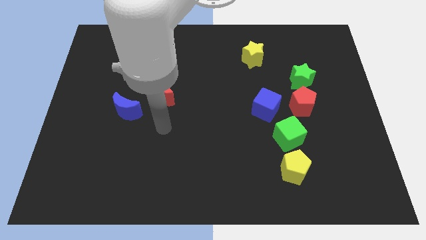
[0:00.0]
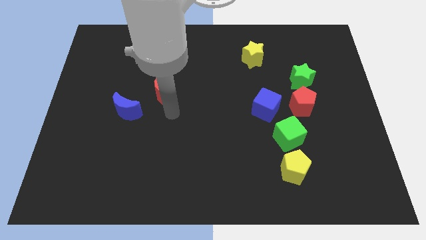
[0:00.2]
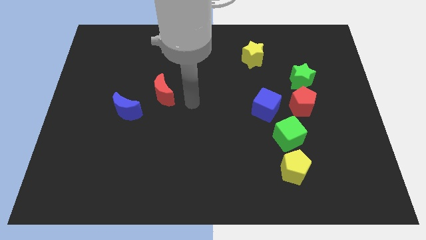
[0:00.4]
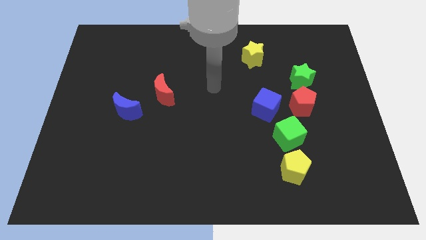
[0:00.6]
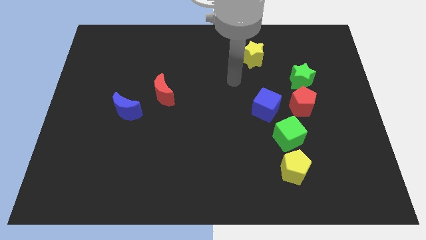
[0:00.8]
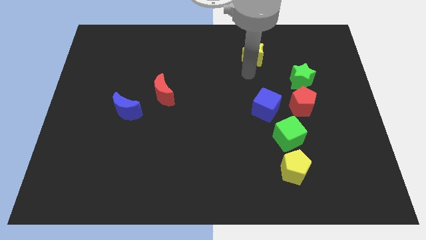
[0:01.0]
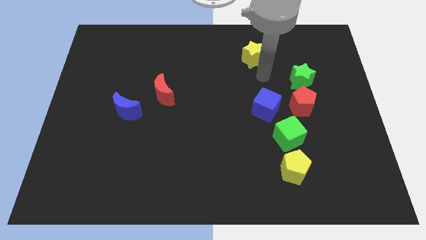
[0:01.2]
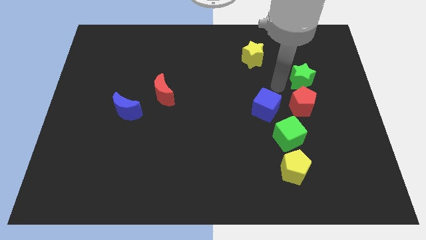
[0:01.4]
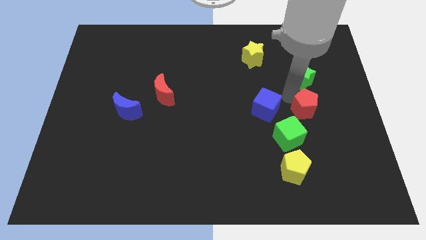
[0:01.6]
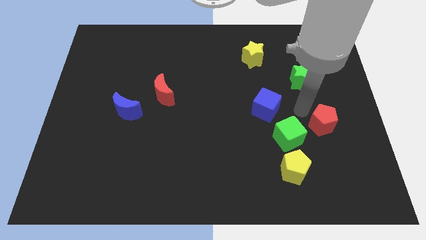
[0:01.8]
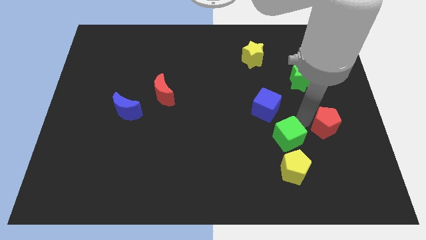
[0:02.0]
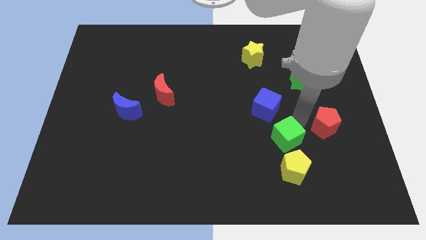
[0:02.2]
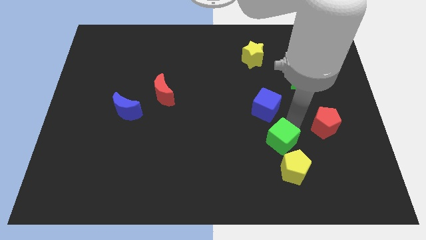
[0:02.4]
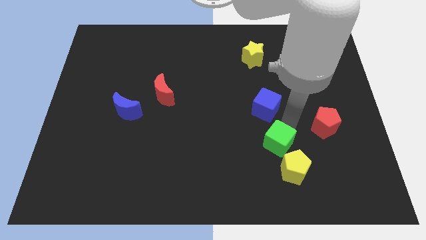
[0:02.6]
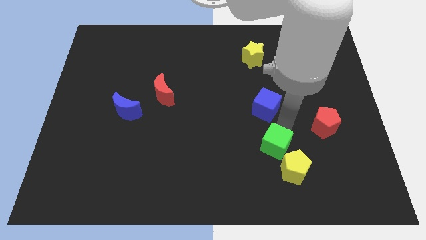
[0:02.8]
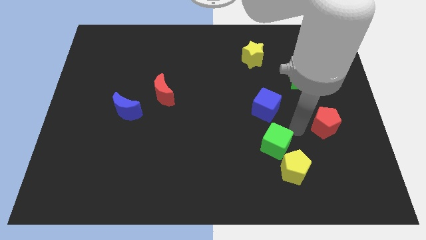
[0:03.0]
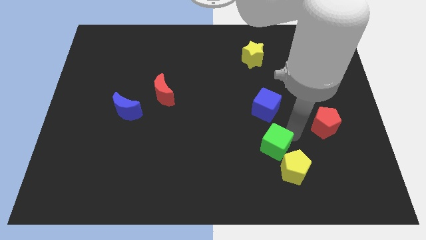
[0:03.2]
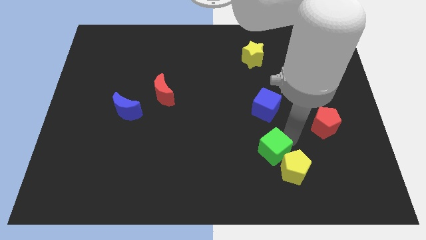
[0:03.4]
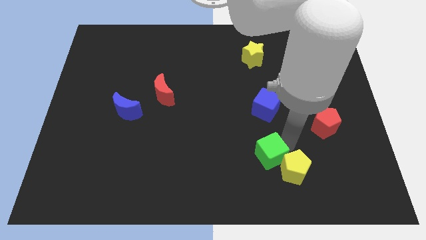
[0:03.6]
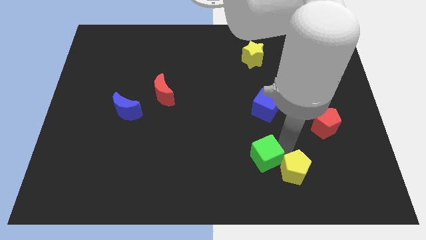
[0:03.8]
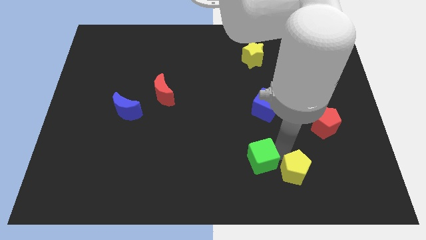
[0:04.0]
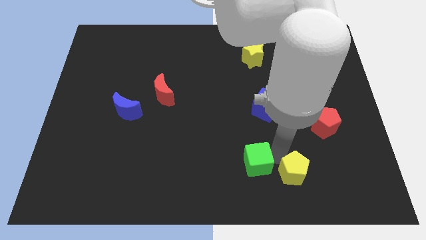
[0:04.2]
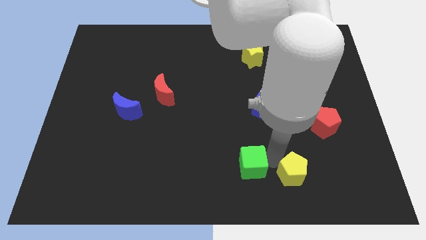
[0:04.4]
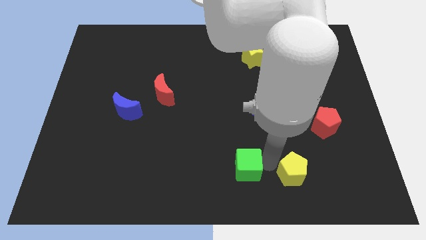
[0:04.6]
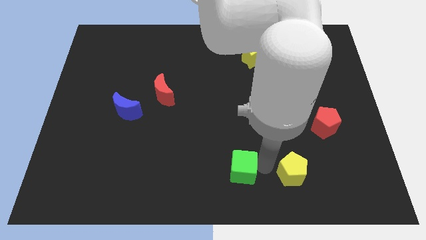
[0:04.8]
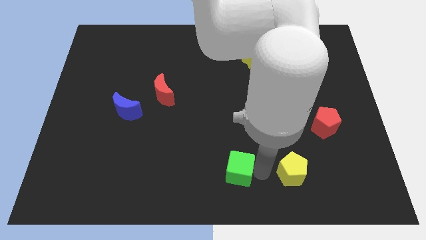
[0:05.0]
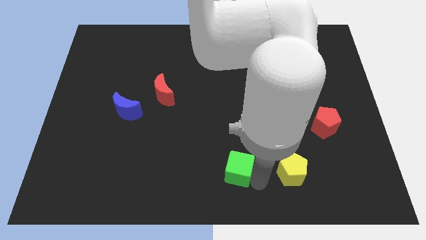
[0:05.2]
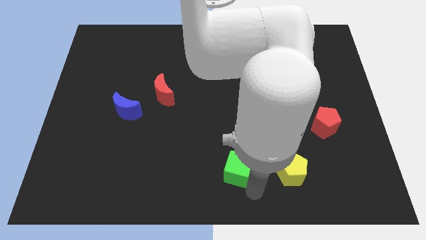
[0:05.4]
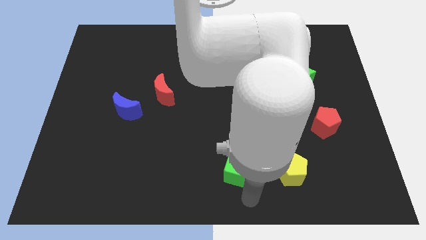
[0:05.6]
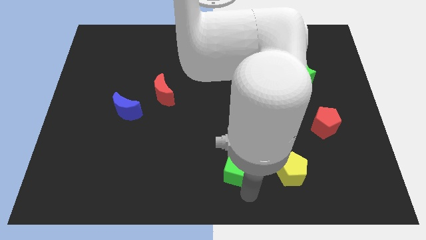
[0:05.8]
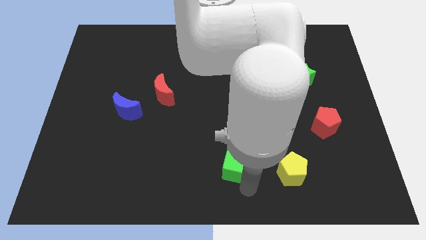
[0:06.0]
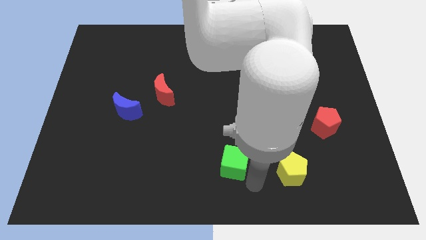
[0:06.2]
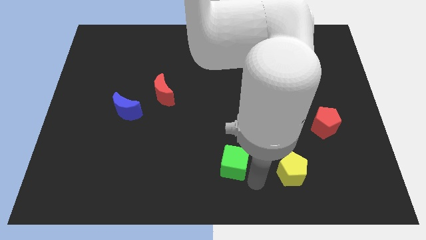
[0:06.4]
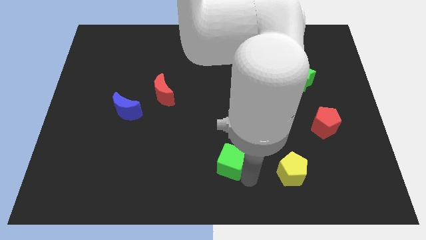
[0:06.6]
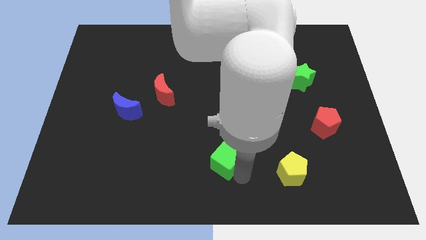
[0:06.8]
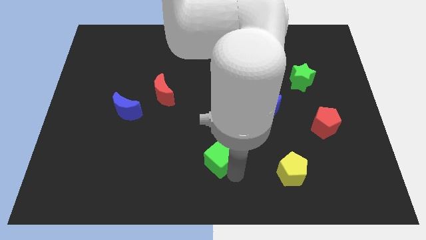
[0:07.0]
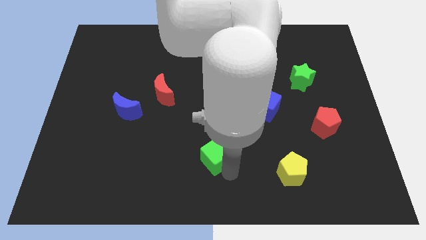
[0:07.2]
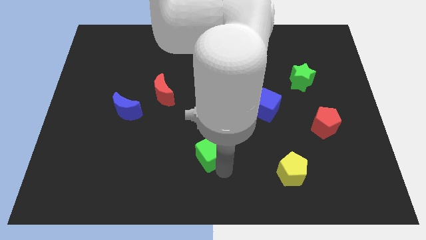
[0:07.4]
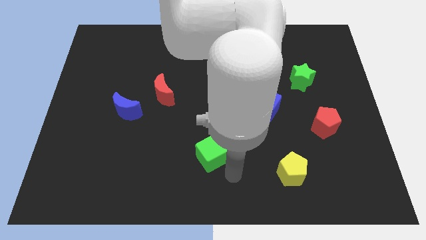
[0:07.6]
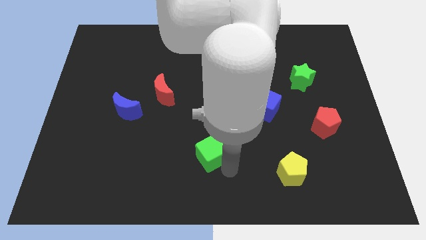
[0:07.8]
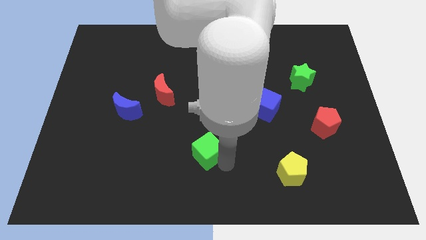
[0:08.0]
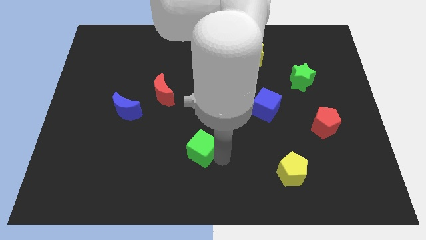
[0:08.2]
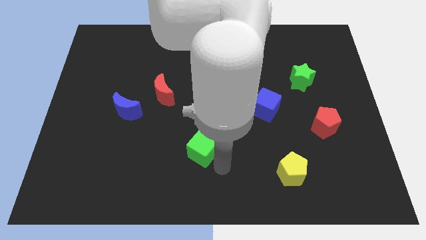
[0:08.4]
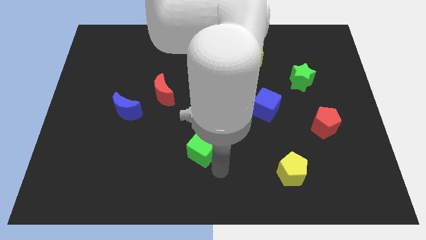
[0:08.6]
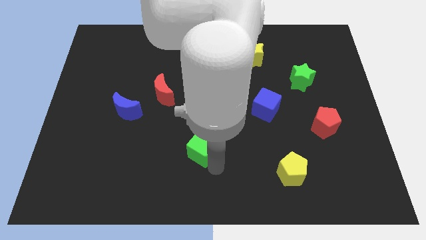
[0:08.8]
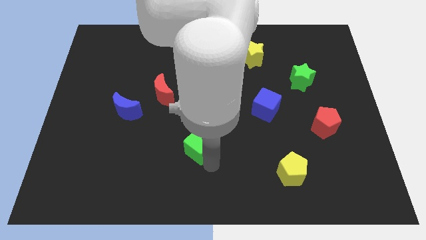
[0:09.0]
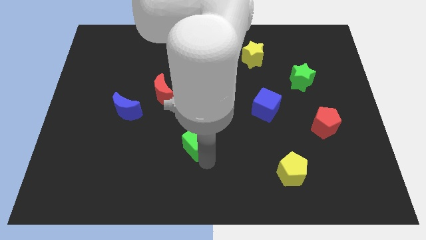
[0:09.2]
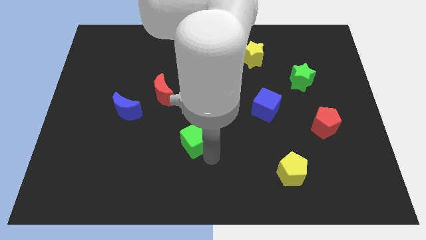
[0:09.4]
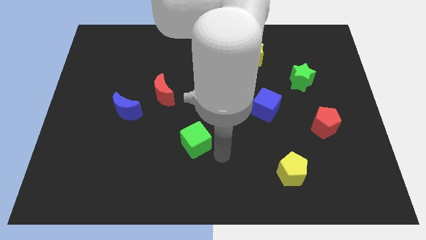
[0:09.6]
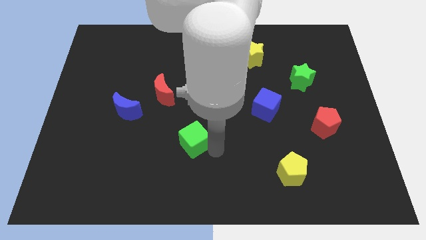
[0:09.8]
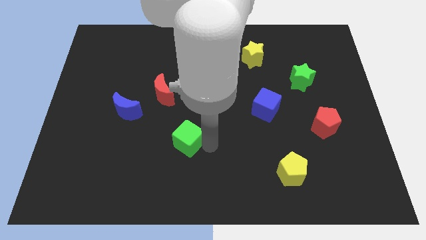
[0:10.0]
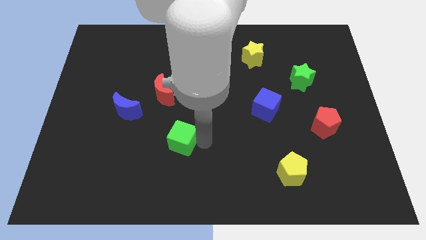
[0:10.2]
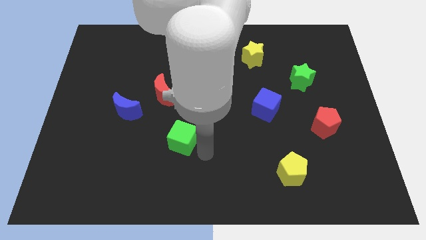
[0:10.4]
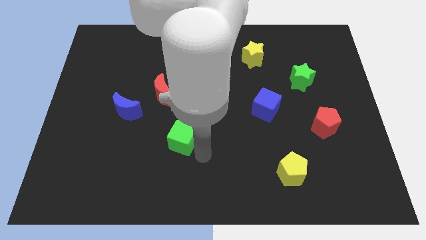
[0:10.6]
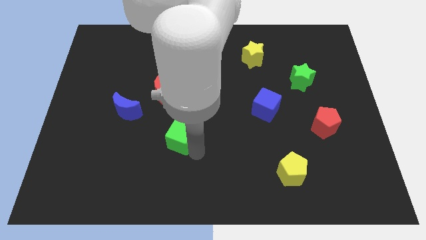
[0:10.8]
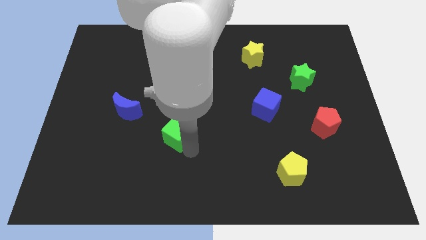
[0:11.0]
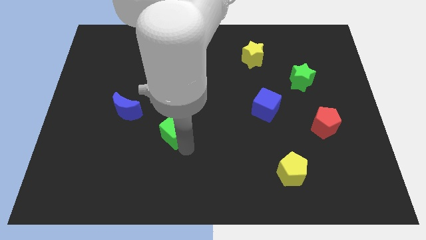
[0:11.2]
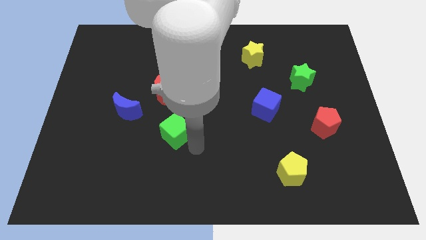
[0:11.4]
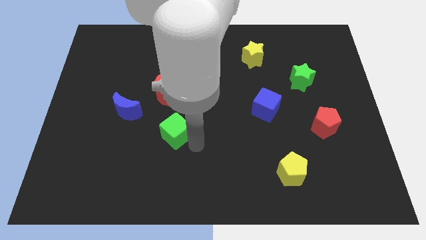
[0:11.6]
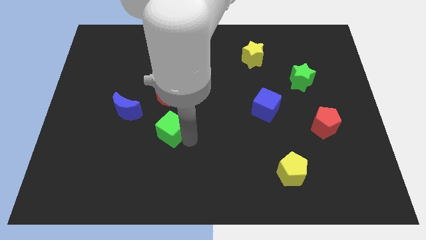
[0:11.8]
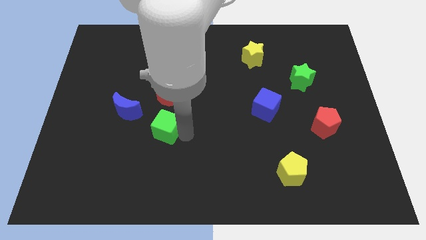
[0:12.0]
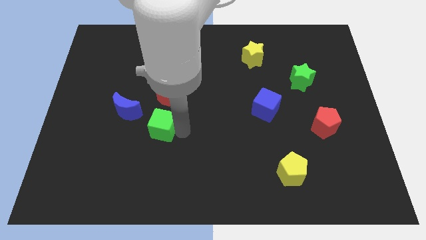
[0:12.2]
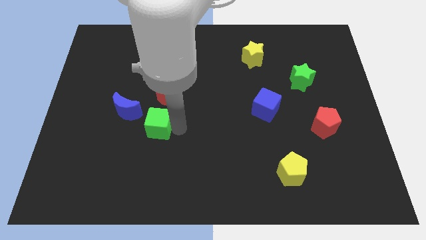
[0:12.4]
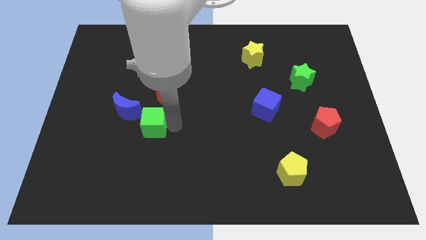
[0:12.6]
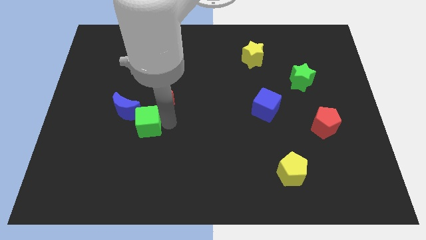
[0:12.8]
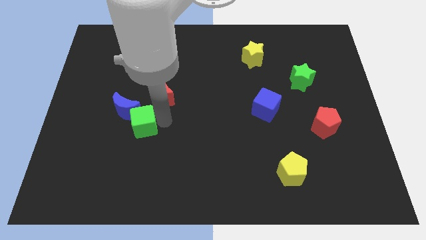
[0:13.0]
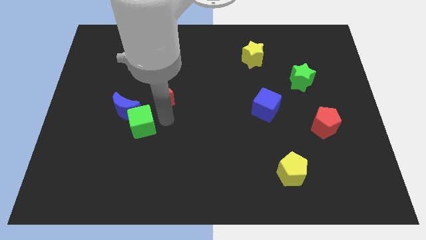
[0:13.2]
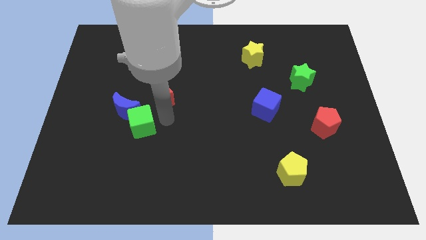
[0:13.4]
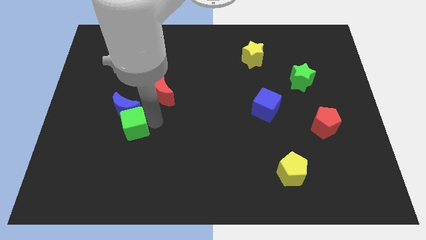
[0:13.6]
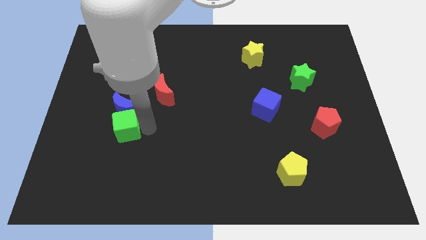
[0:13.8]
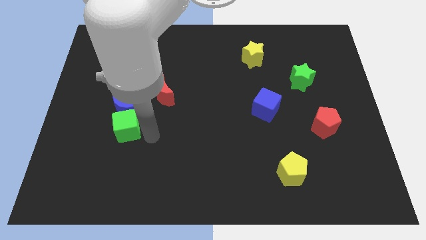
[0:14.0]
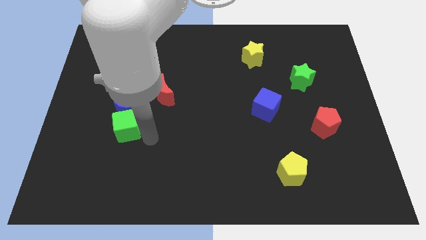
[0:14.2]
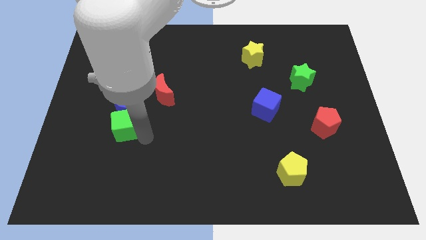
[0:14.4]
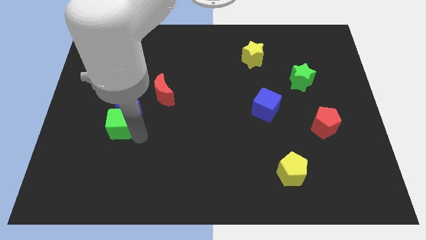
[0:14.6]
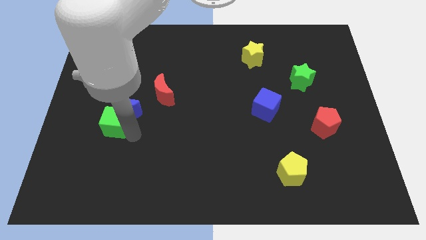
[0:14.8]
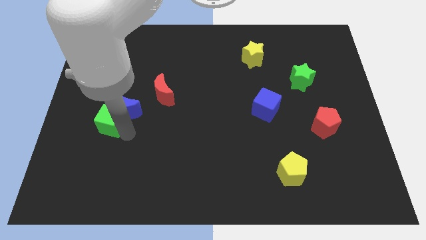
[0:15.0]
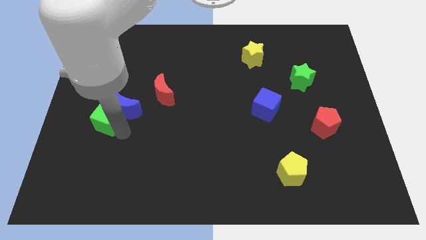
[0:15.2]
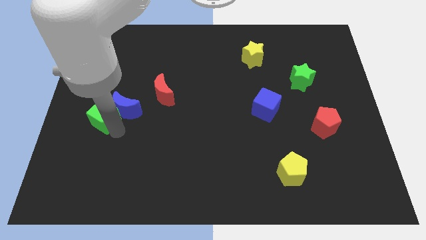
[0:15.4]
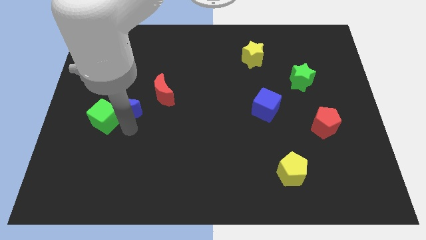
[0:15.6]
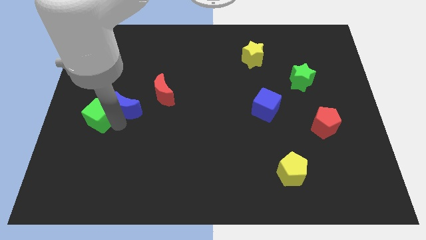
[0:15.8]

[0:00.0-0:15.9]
push the green cube to the left side
